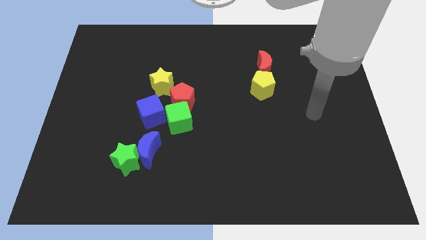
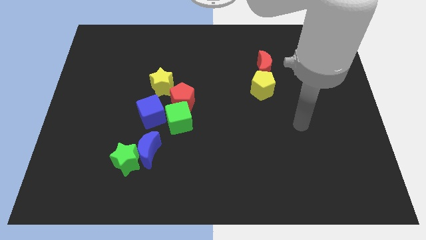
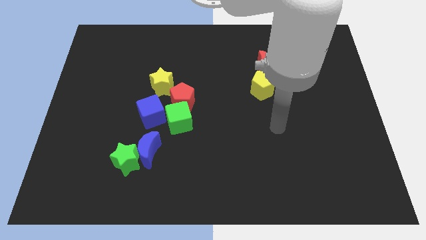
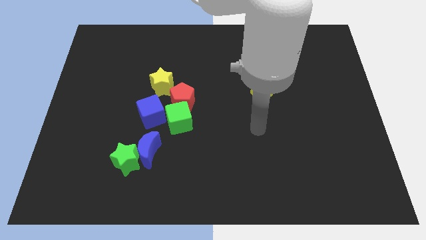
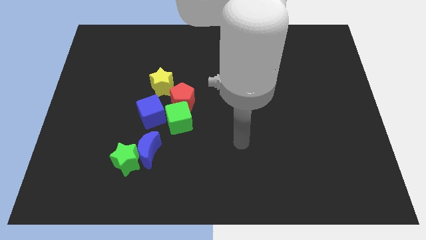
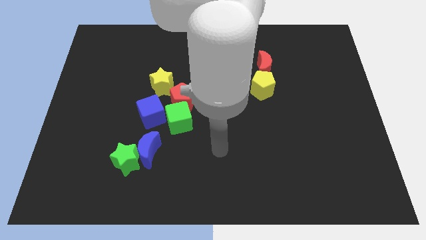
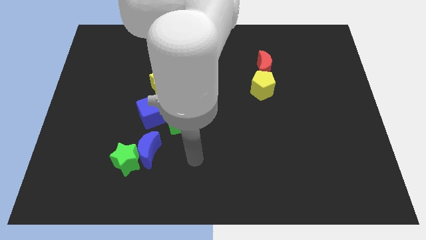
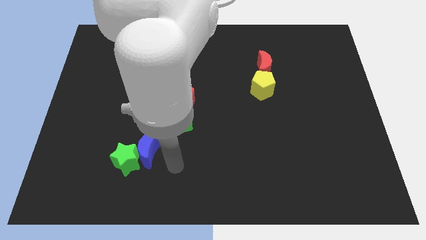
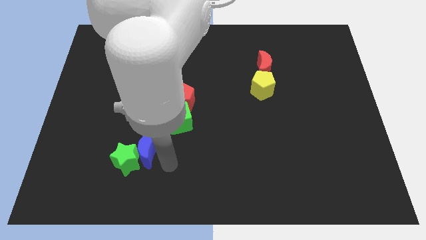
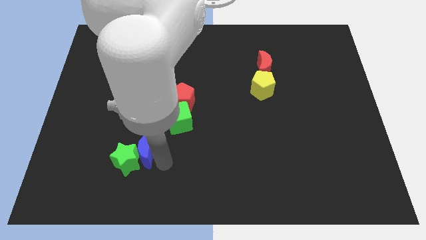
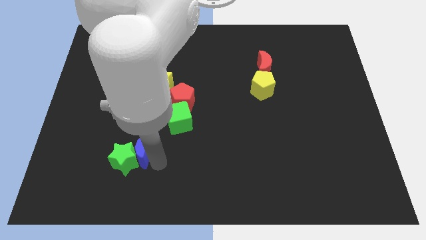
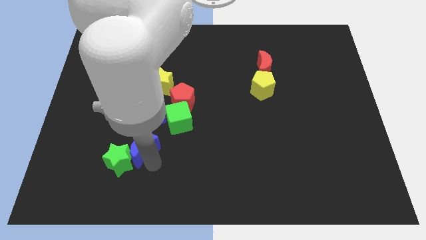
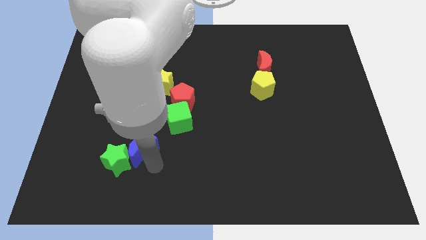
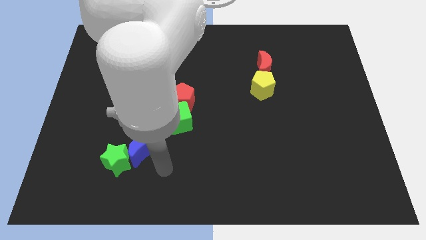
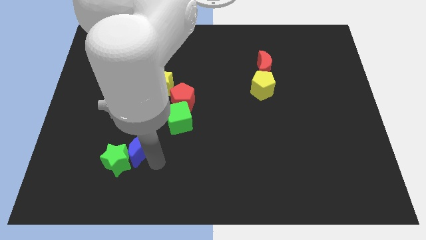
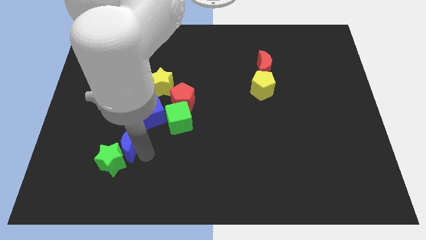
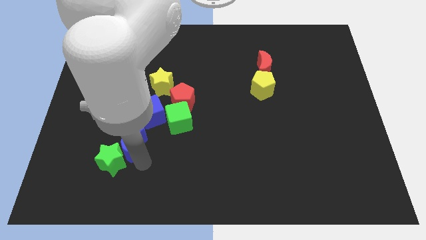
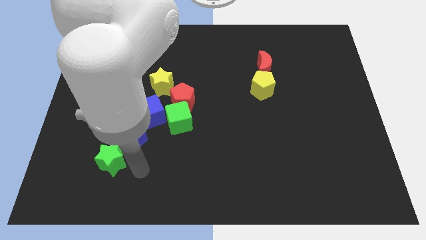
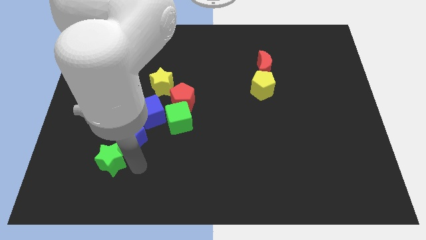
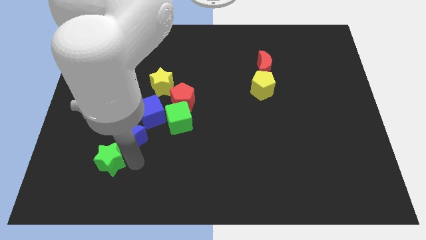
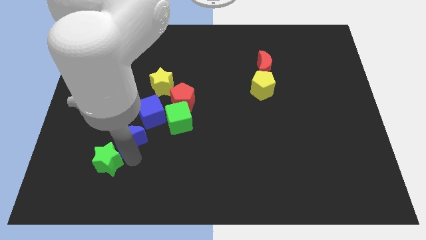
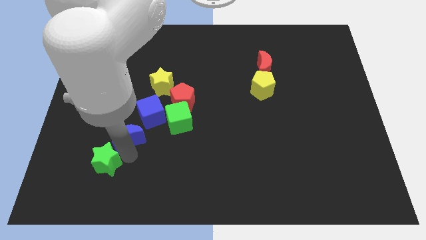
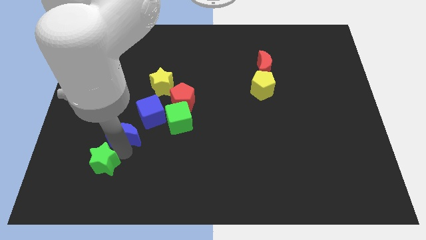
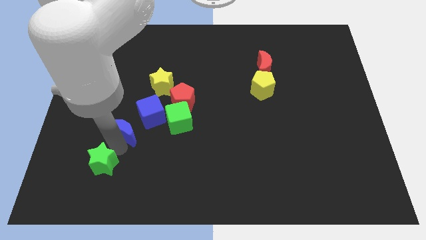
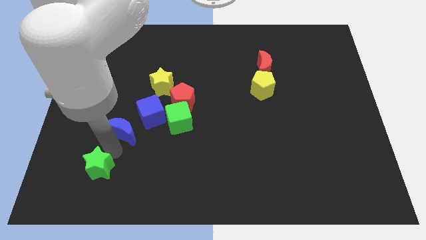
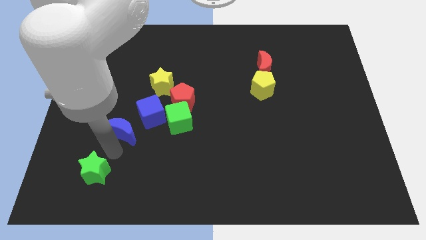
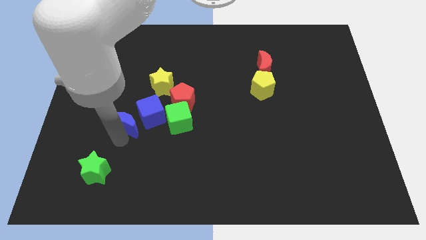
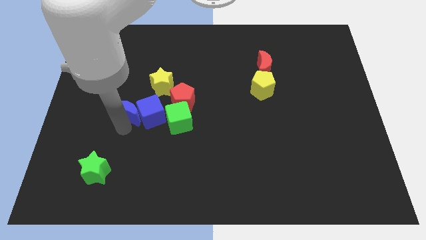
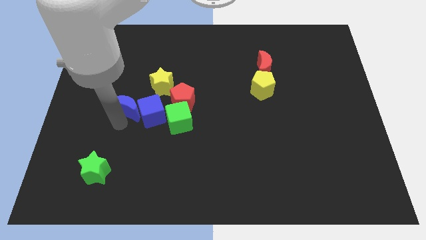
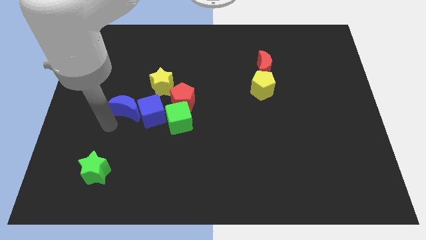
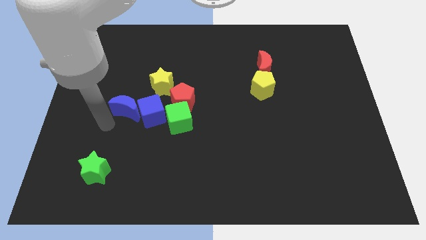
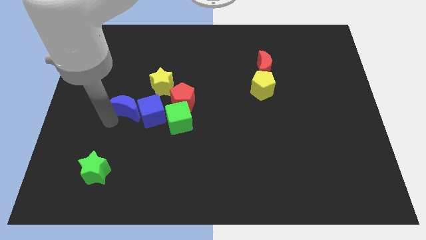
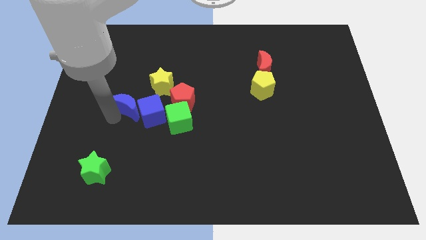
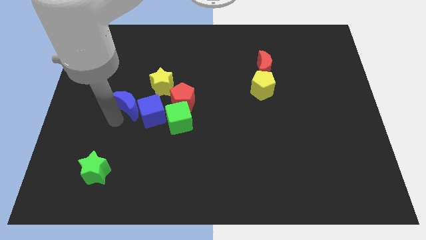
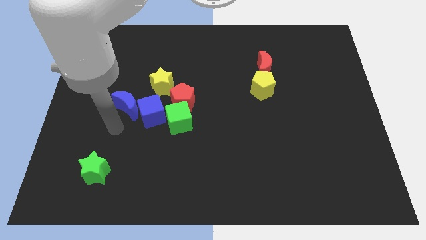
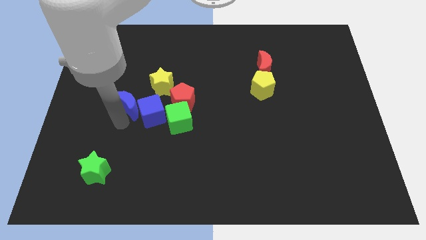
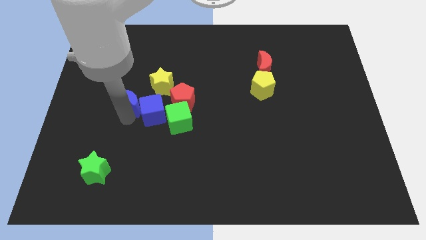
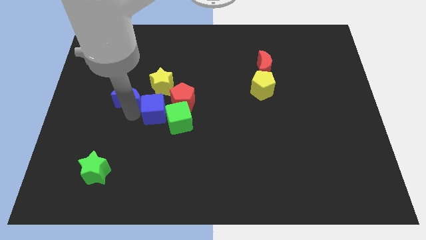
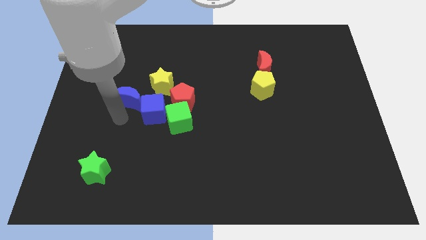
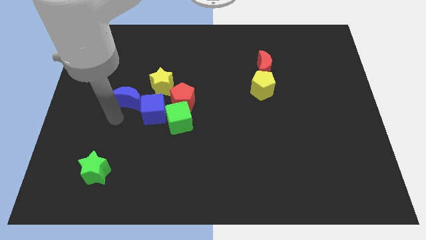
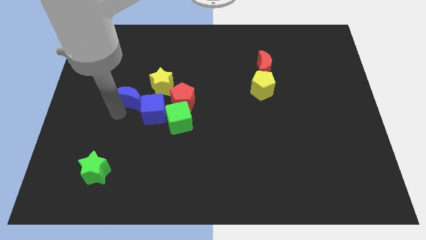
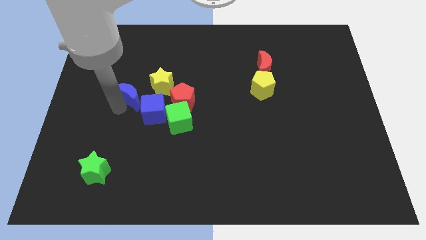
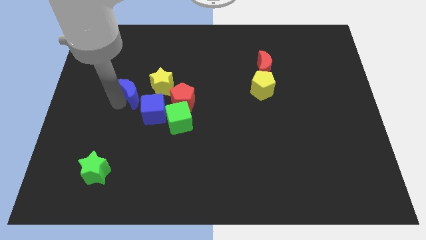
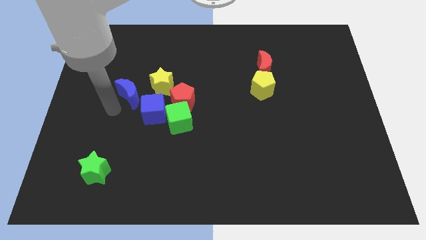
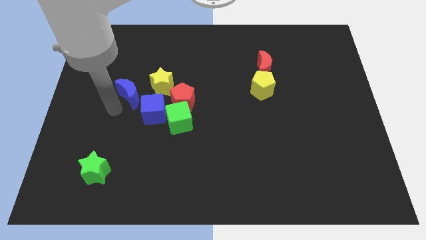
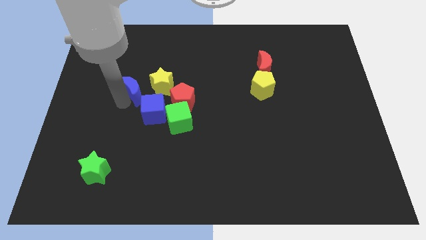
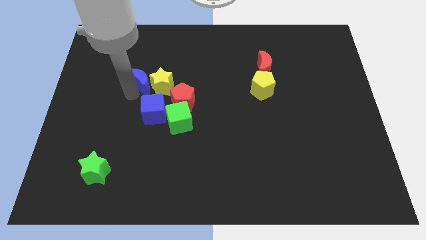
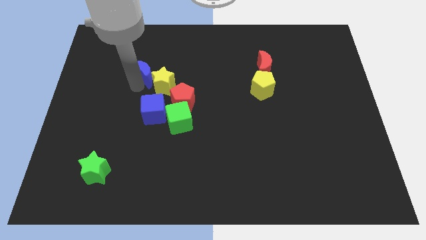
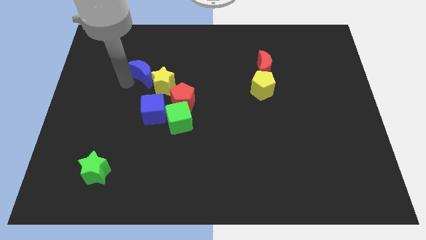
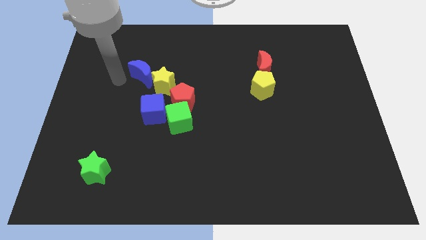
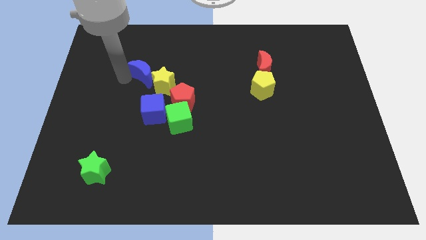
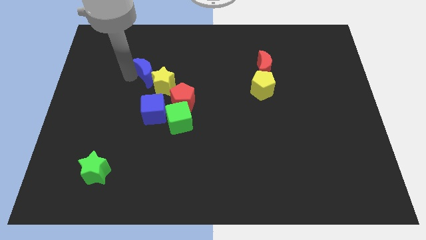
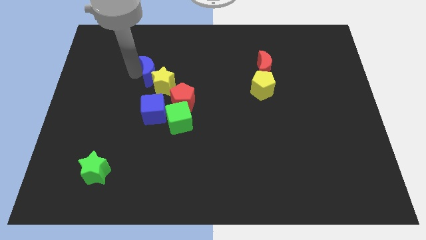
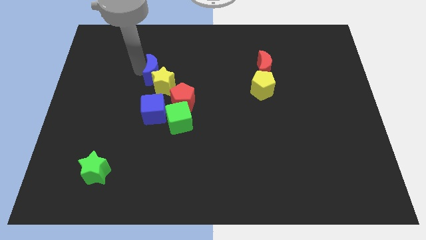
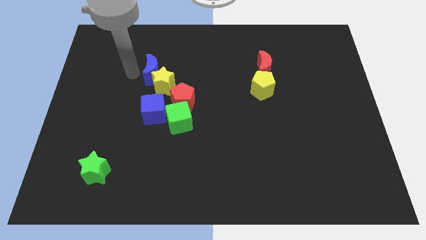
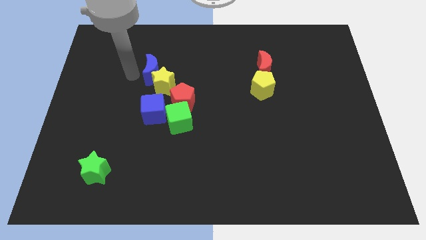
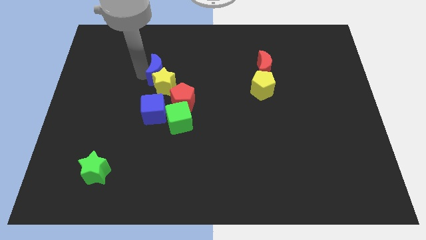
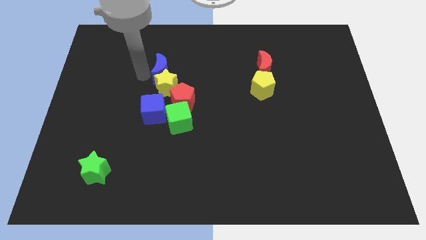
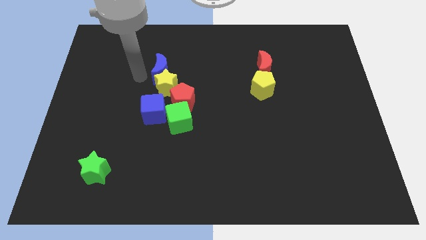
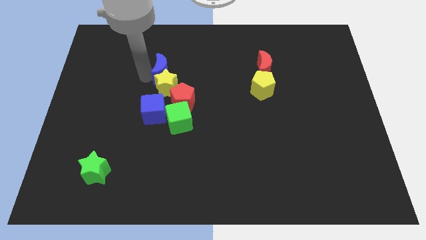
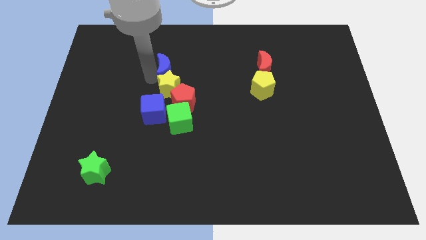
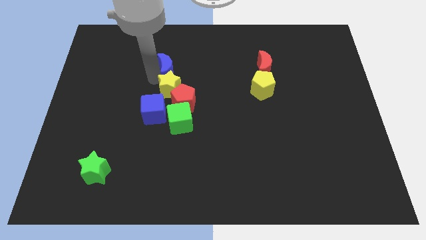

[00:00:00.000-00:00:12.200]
slide the blue moon above the red pentagon

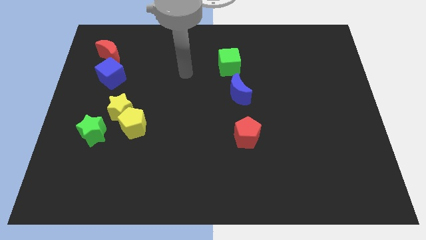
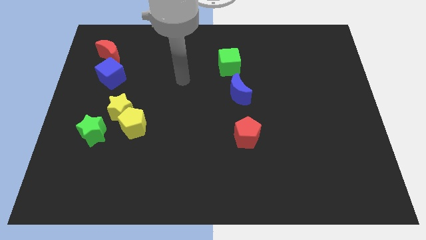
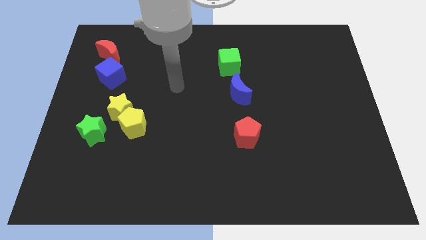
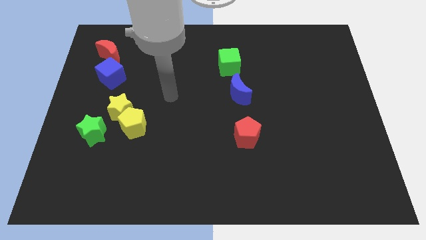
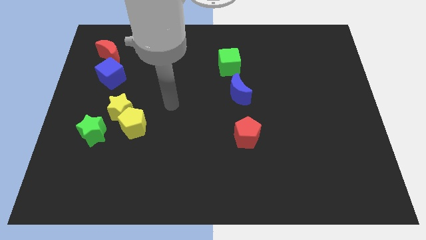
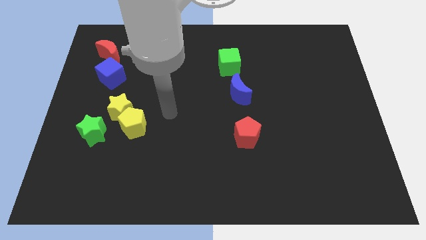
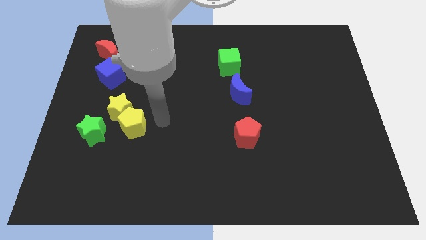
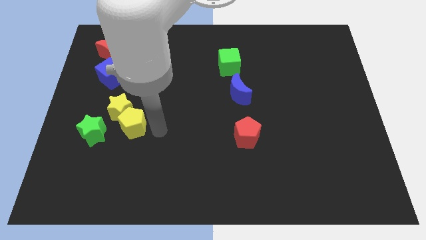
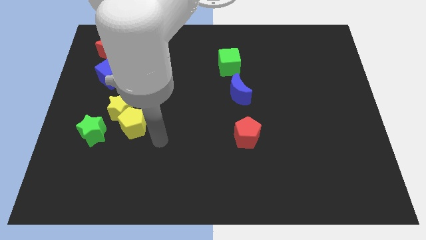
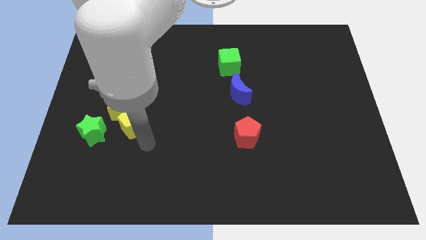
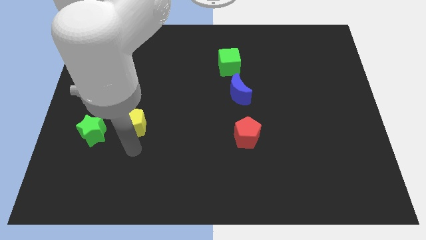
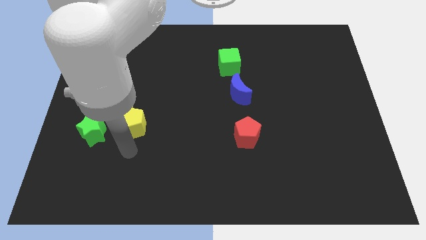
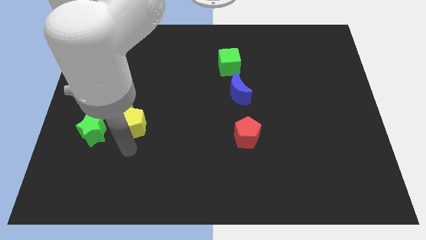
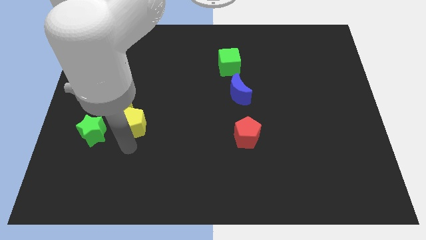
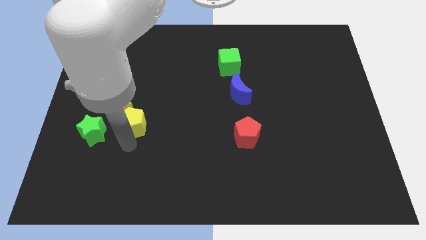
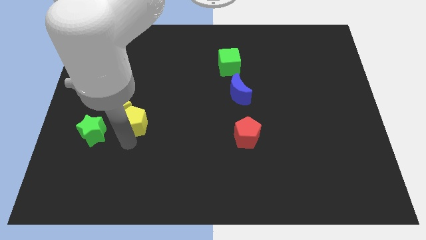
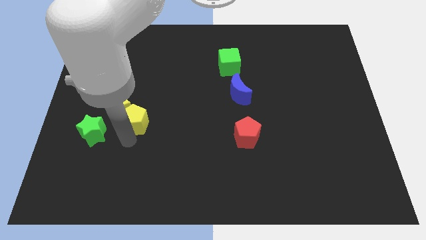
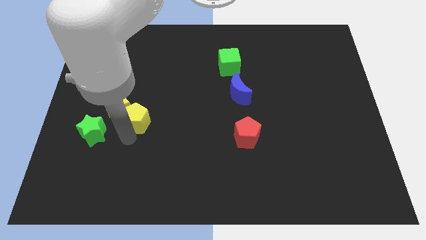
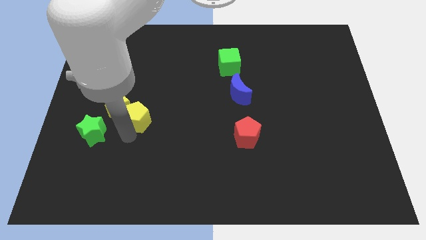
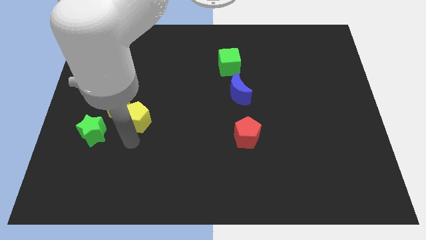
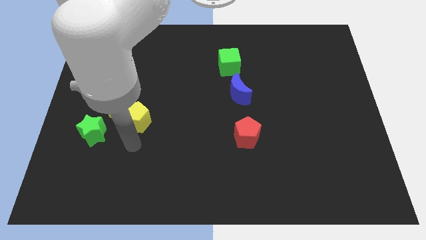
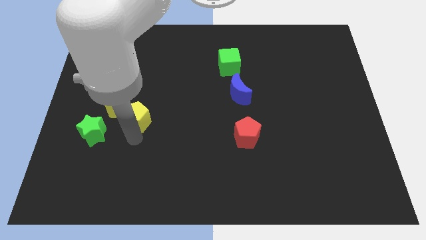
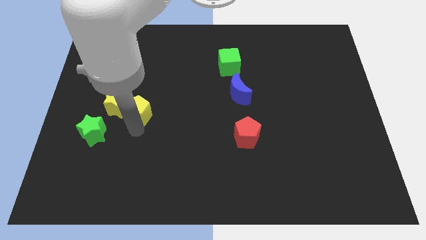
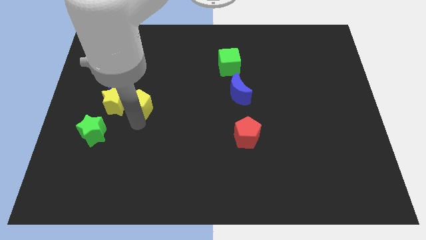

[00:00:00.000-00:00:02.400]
put the yellow pentagon to the top right of the yellow star
